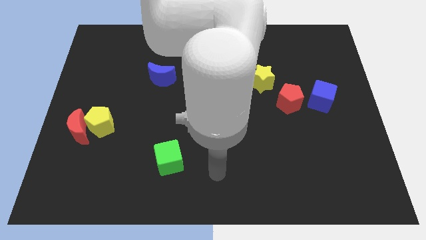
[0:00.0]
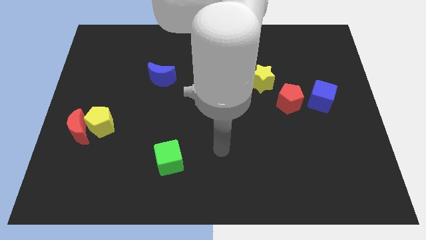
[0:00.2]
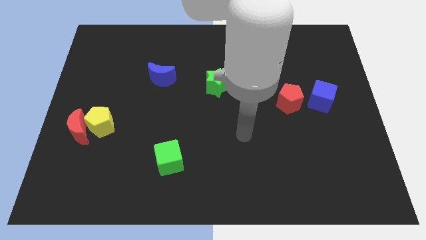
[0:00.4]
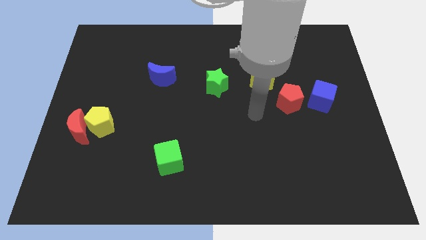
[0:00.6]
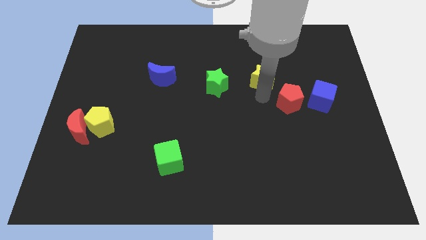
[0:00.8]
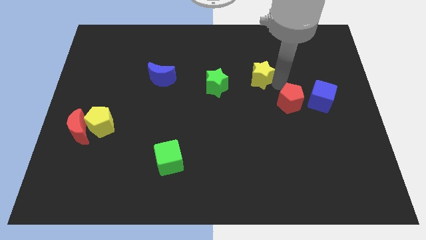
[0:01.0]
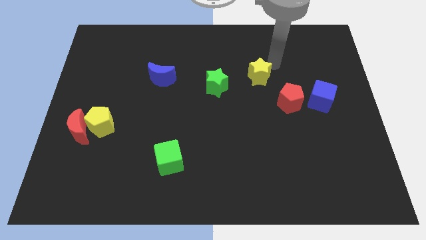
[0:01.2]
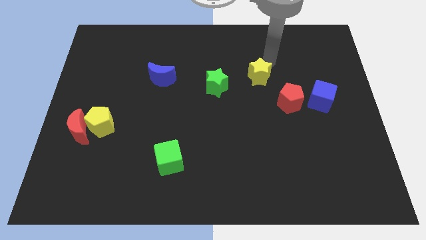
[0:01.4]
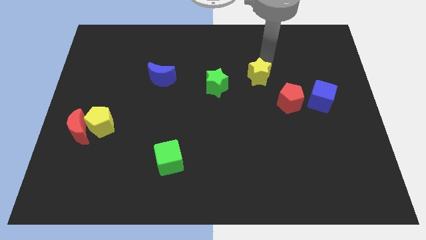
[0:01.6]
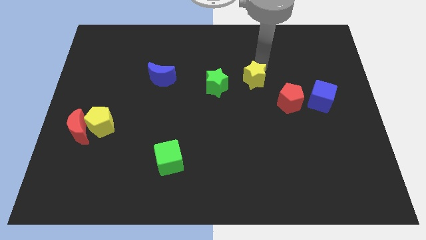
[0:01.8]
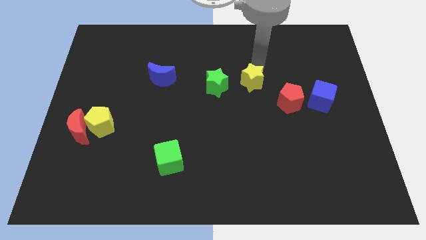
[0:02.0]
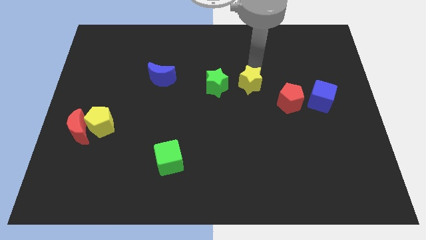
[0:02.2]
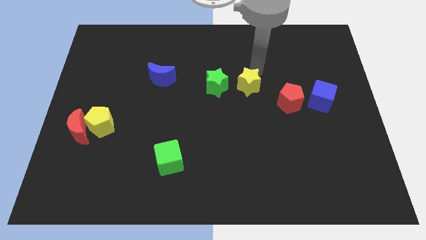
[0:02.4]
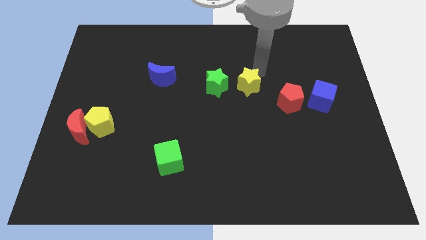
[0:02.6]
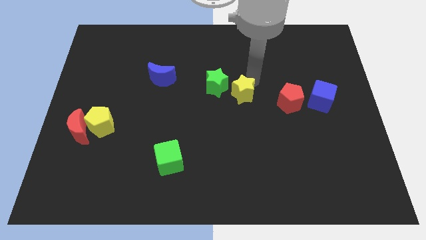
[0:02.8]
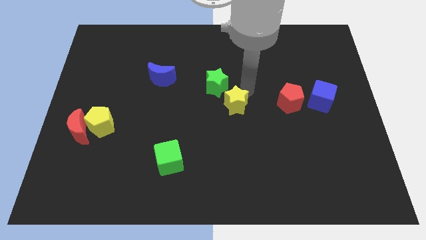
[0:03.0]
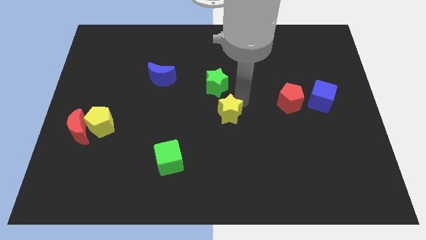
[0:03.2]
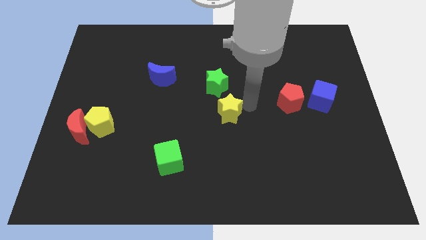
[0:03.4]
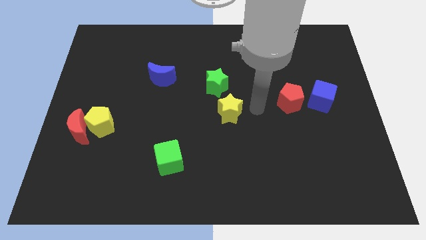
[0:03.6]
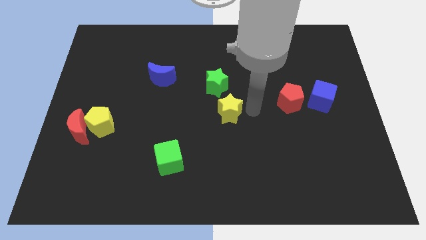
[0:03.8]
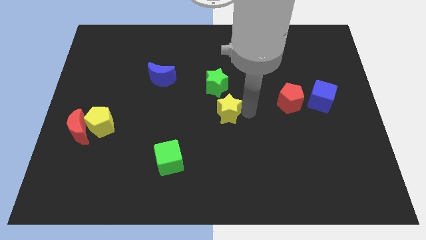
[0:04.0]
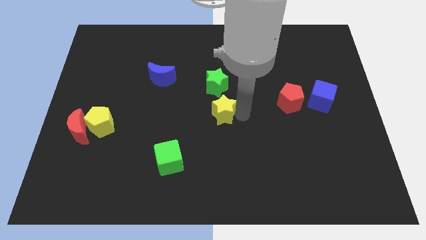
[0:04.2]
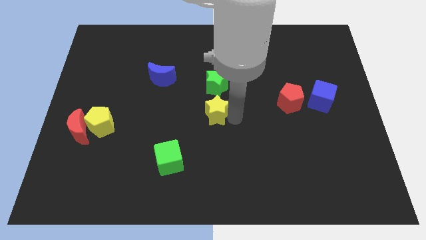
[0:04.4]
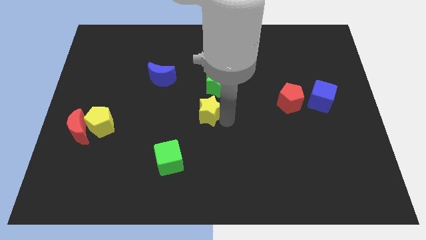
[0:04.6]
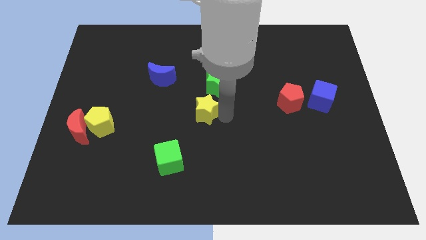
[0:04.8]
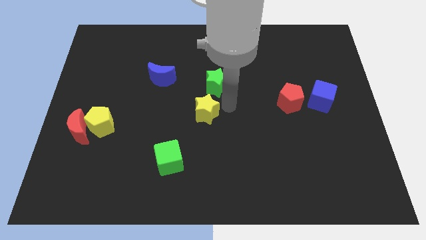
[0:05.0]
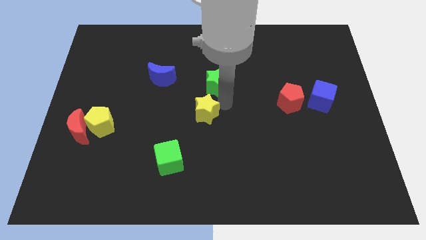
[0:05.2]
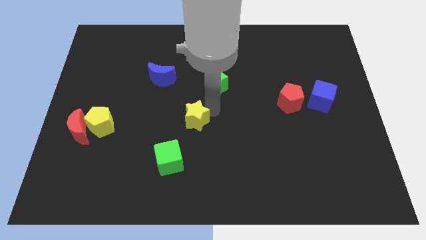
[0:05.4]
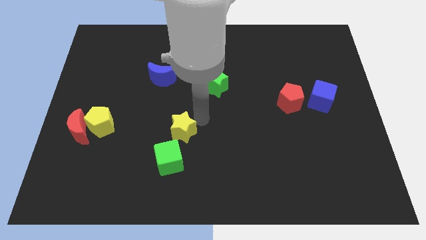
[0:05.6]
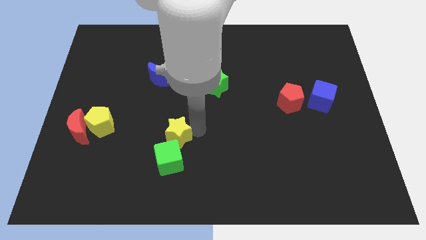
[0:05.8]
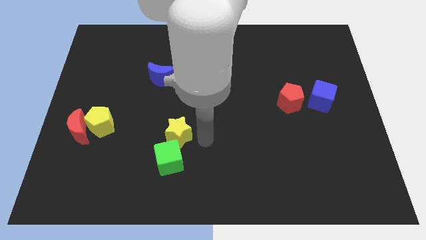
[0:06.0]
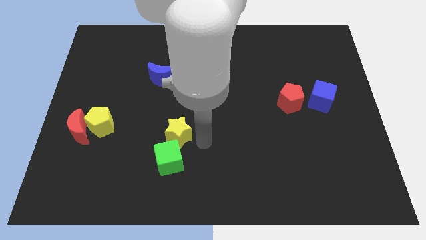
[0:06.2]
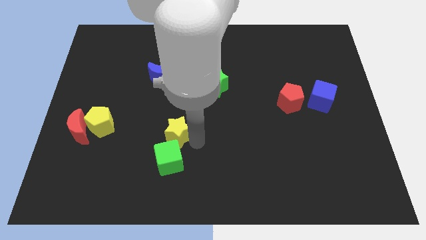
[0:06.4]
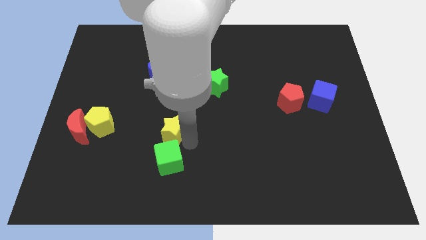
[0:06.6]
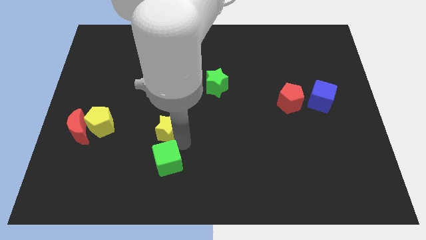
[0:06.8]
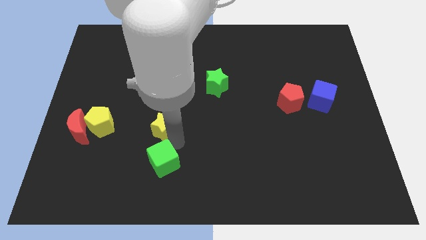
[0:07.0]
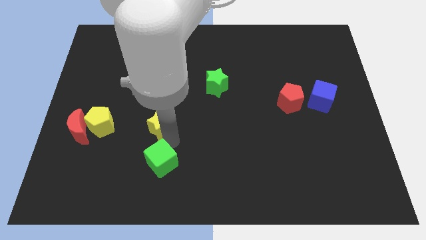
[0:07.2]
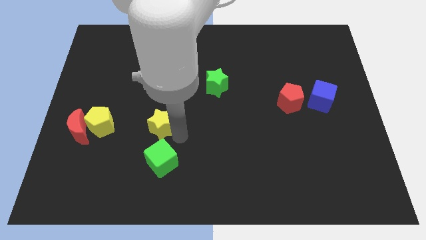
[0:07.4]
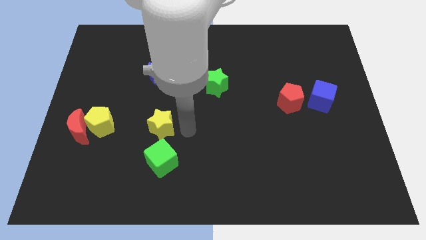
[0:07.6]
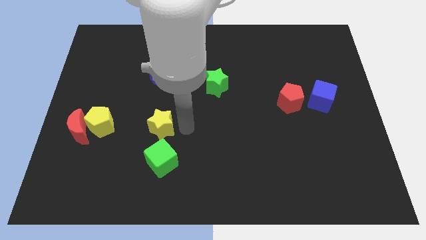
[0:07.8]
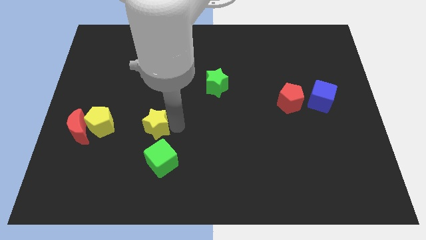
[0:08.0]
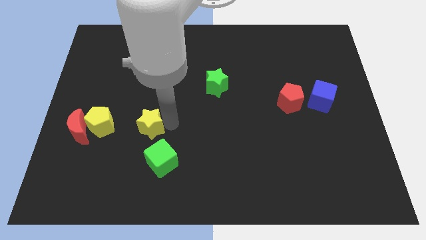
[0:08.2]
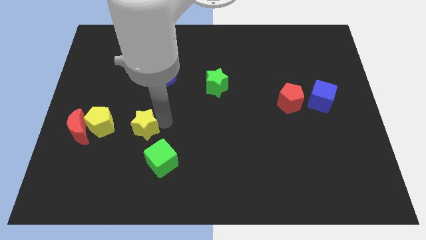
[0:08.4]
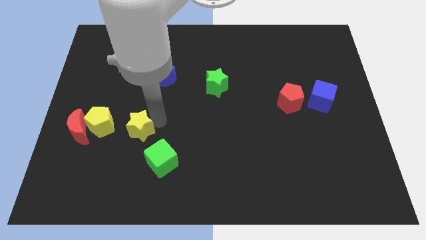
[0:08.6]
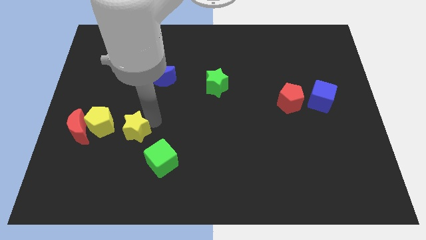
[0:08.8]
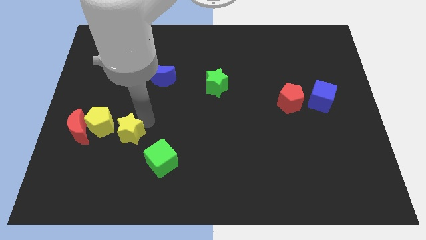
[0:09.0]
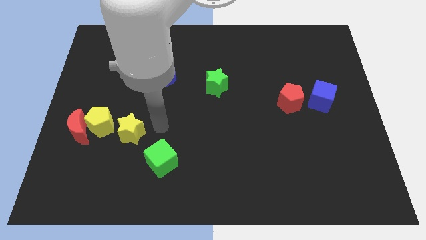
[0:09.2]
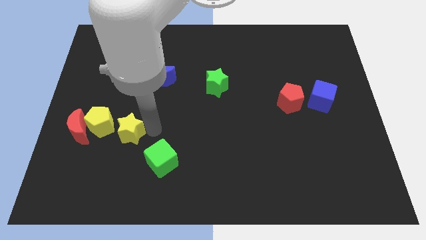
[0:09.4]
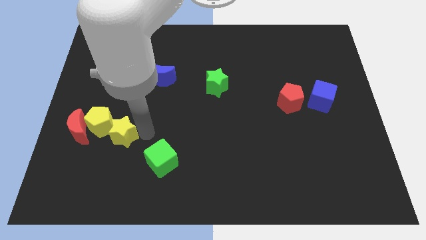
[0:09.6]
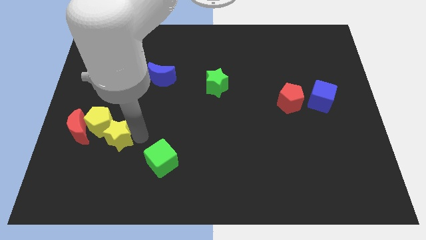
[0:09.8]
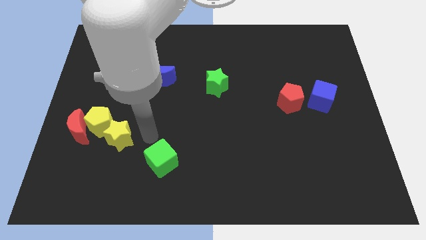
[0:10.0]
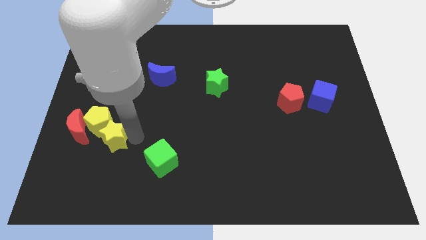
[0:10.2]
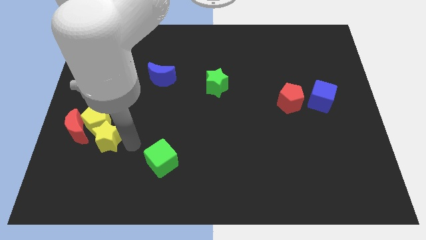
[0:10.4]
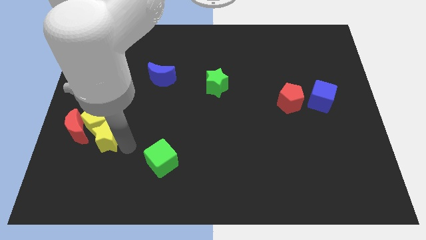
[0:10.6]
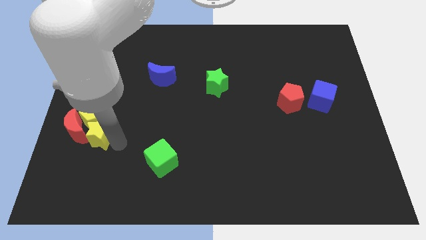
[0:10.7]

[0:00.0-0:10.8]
slide the yellow star towards the red moon

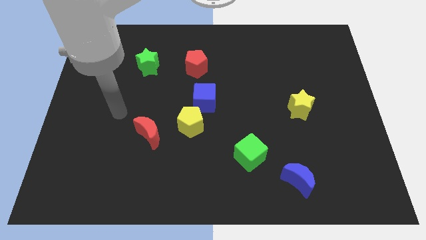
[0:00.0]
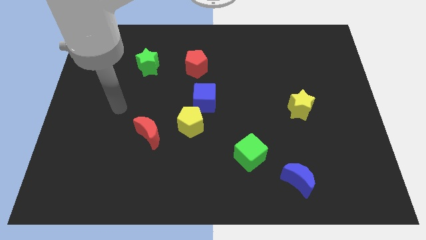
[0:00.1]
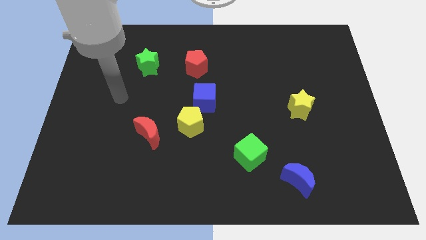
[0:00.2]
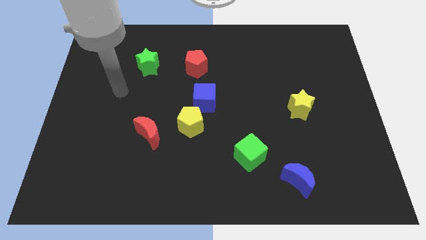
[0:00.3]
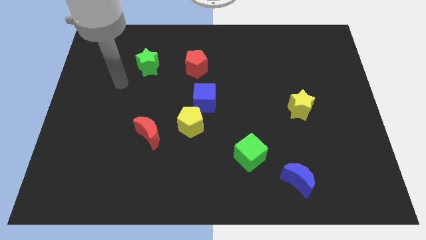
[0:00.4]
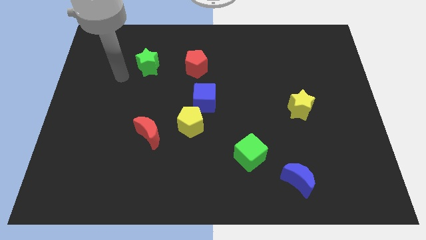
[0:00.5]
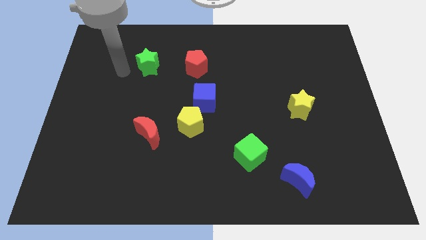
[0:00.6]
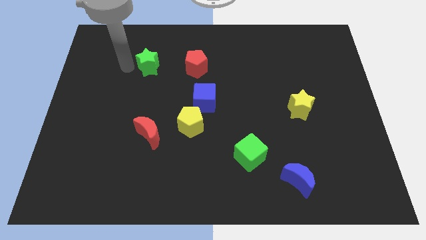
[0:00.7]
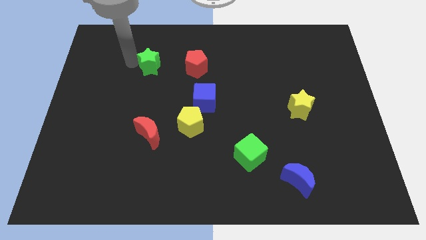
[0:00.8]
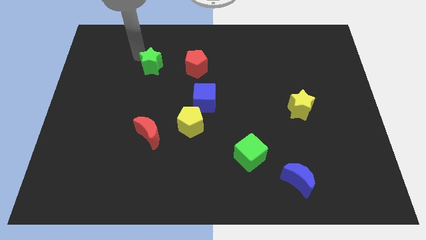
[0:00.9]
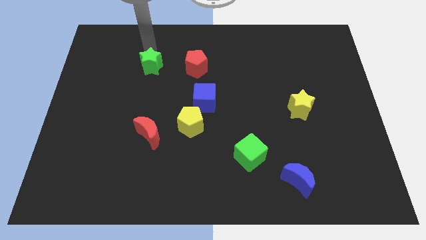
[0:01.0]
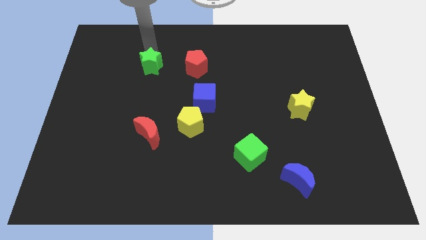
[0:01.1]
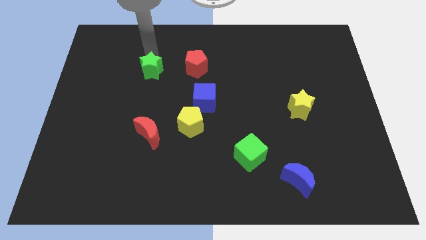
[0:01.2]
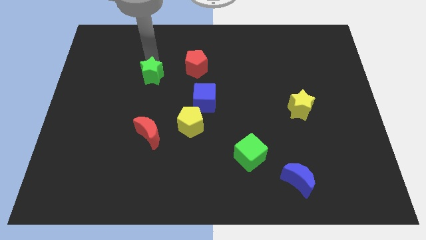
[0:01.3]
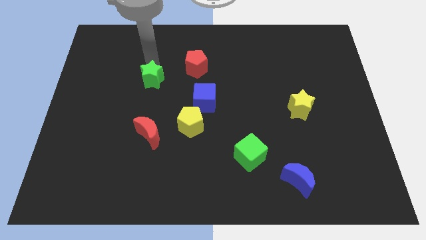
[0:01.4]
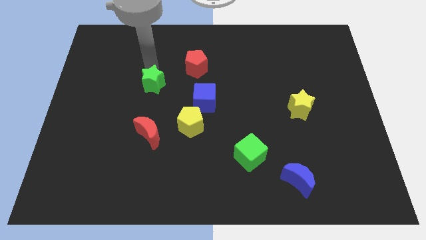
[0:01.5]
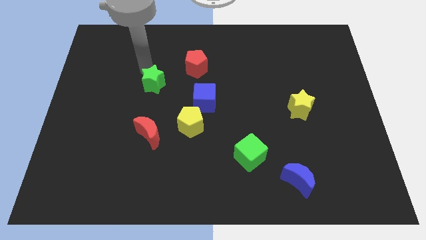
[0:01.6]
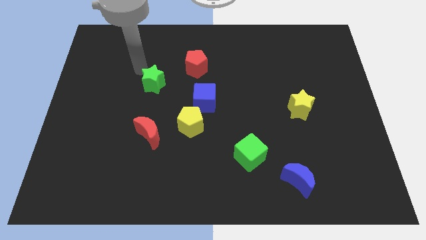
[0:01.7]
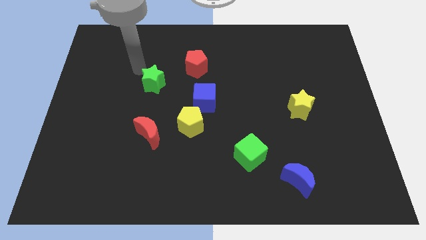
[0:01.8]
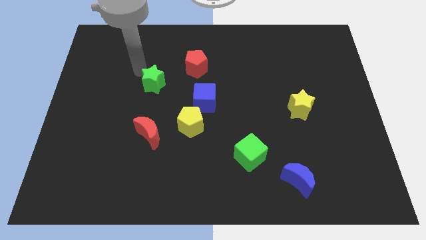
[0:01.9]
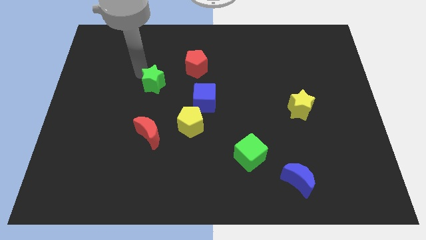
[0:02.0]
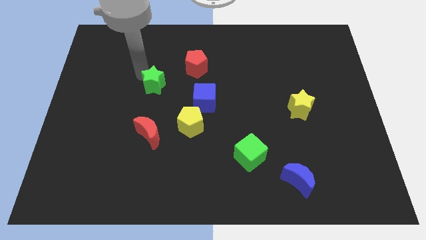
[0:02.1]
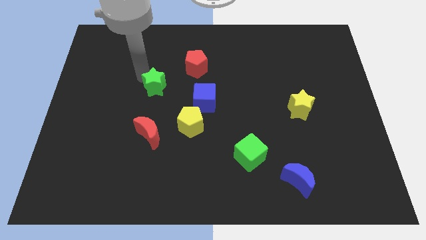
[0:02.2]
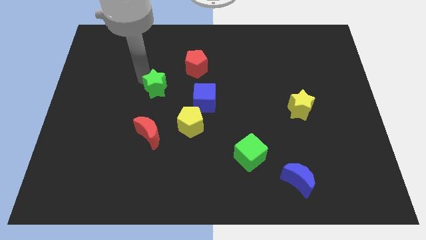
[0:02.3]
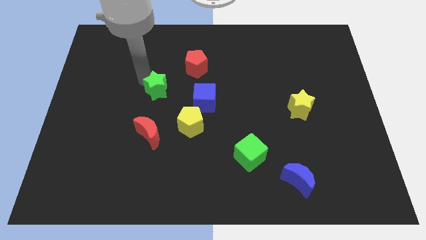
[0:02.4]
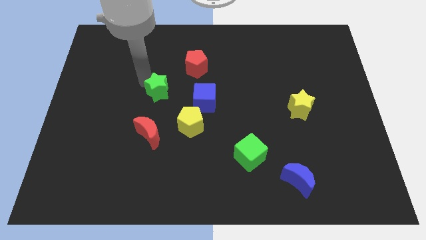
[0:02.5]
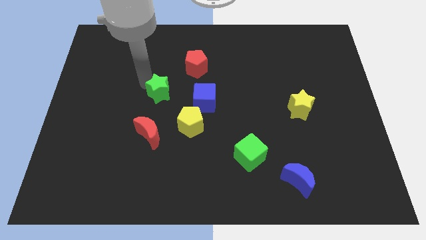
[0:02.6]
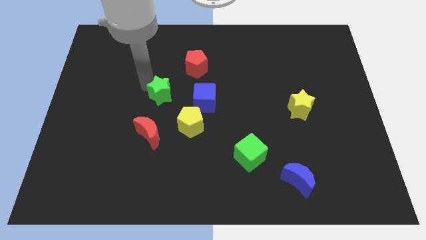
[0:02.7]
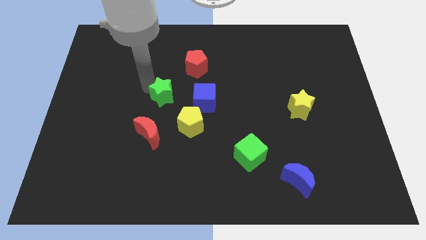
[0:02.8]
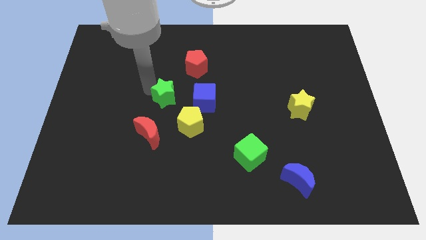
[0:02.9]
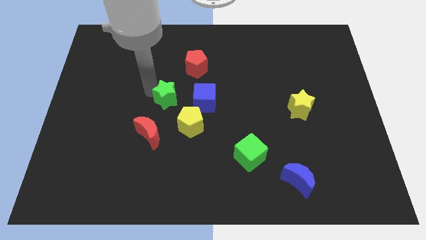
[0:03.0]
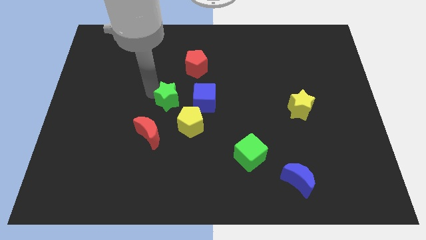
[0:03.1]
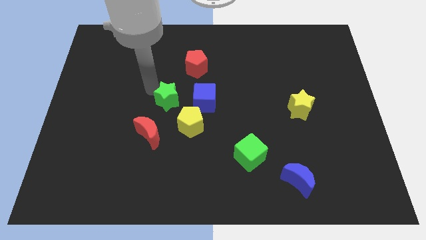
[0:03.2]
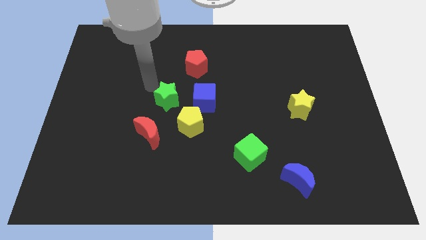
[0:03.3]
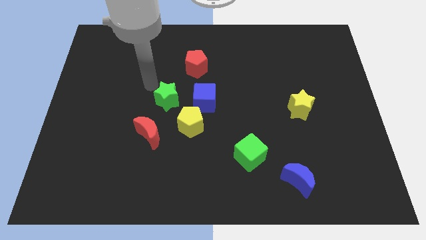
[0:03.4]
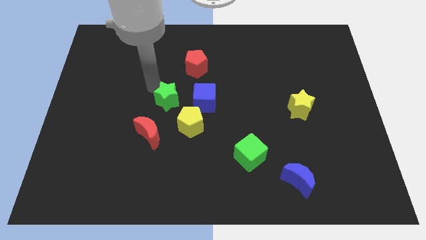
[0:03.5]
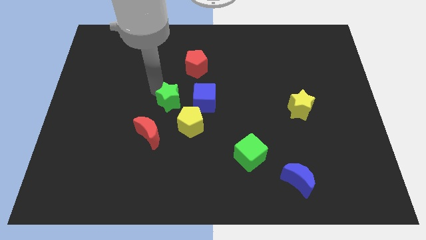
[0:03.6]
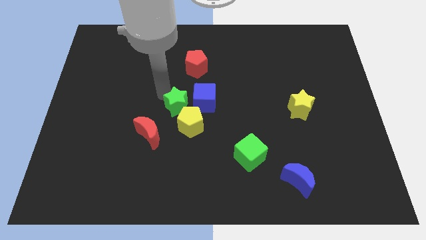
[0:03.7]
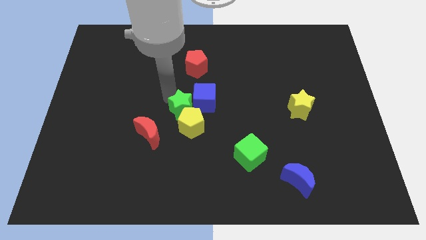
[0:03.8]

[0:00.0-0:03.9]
move the green star to the yellow pentagon
